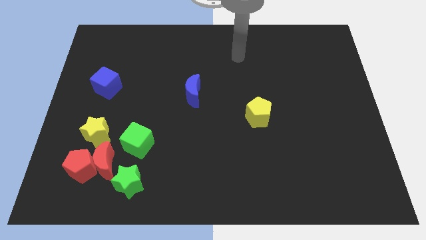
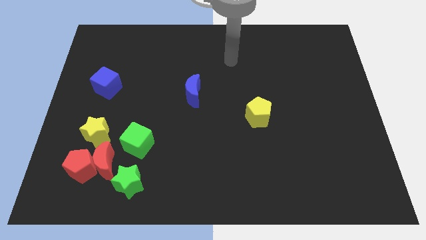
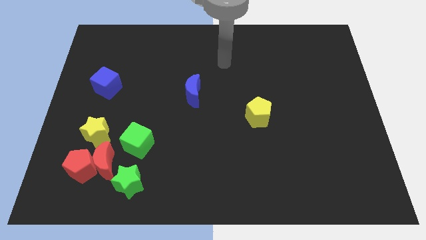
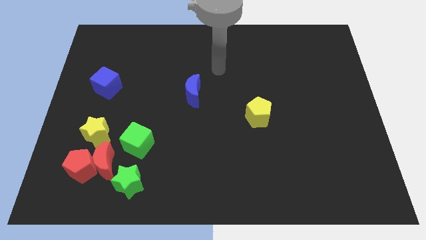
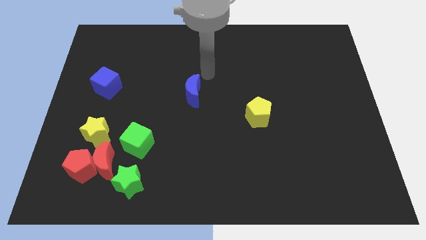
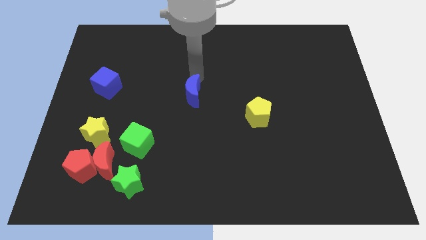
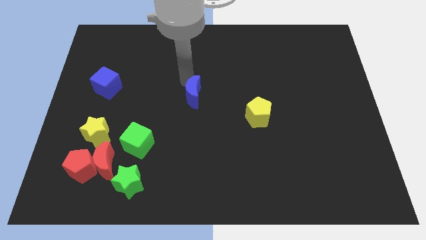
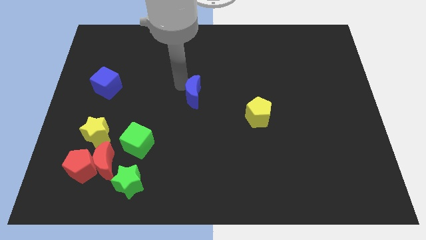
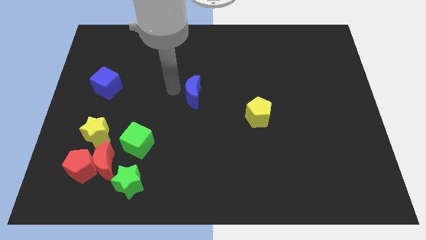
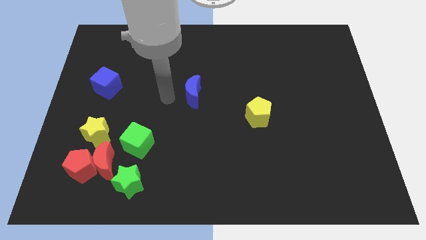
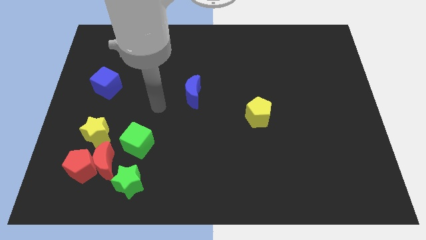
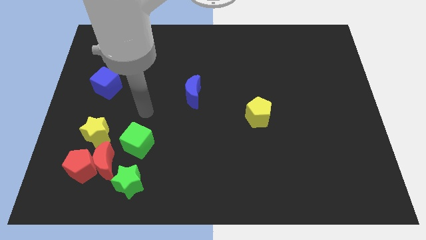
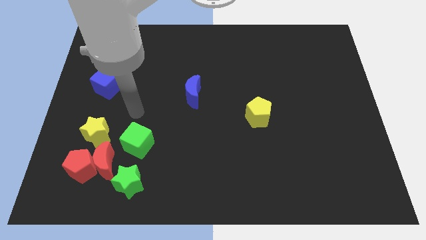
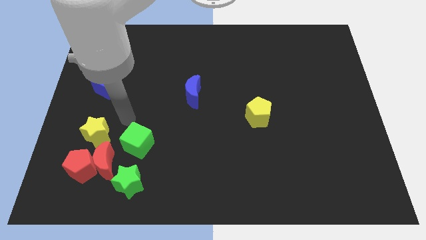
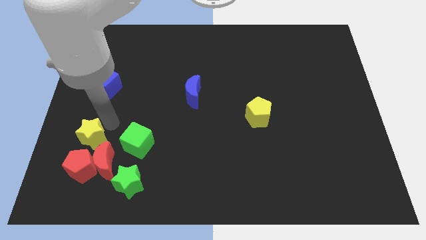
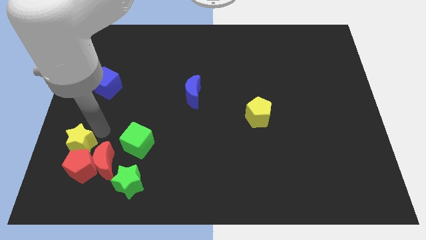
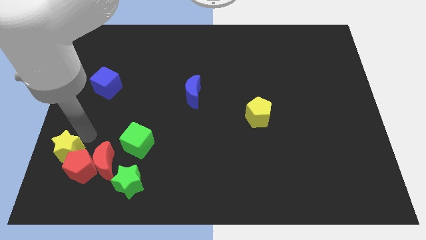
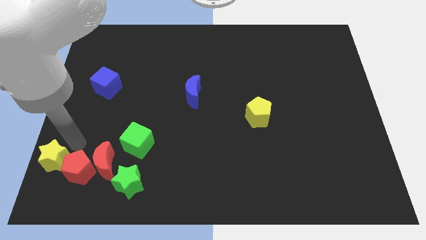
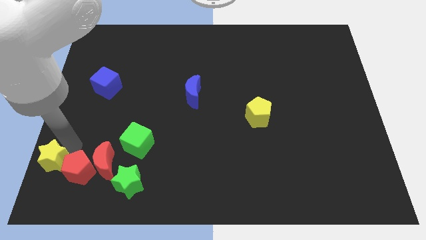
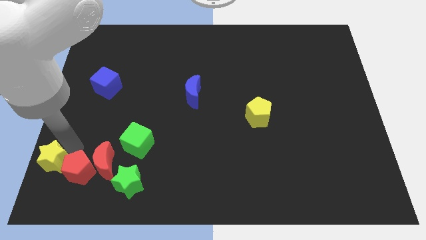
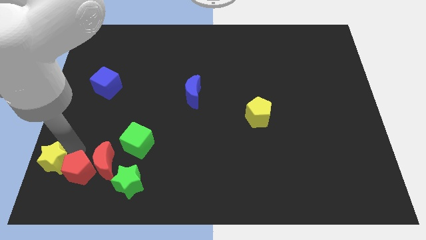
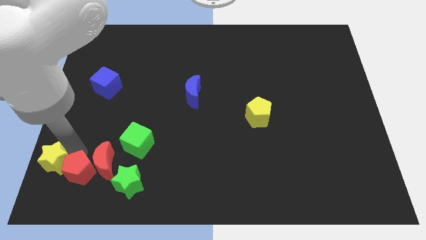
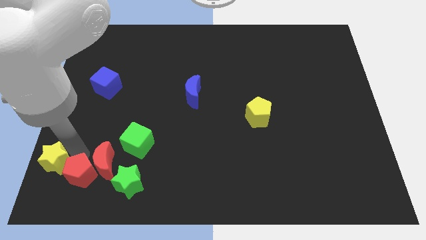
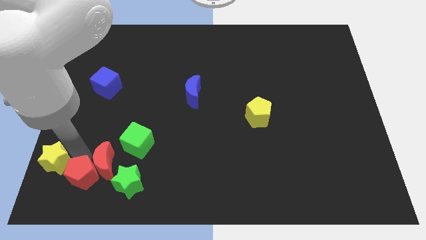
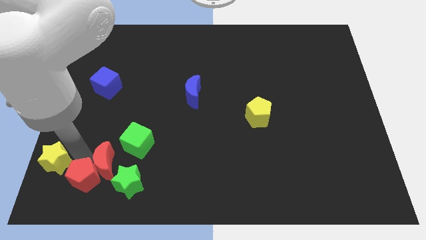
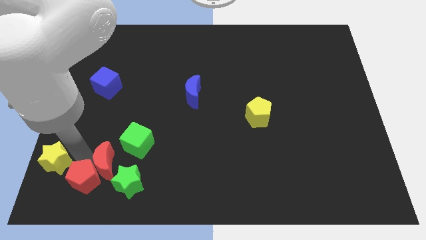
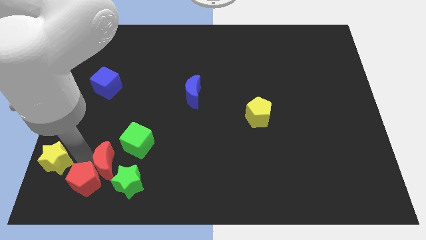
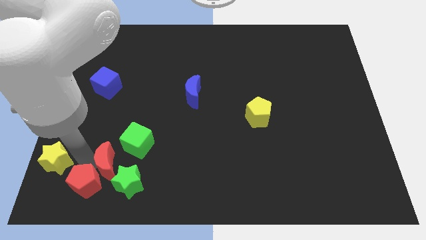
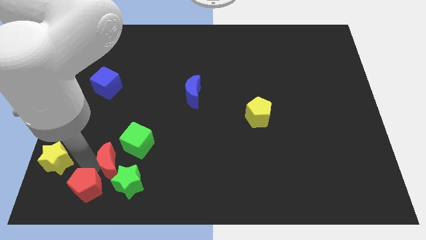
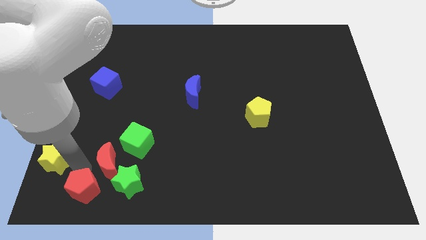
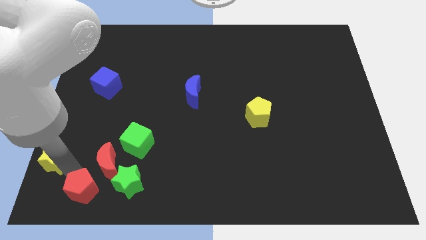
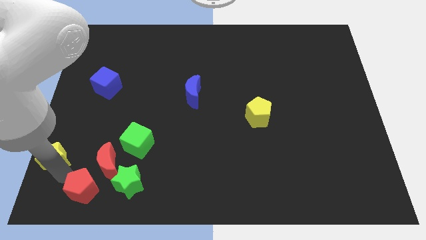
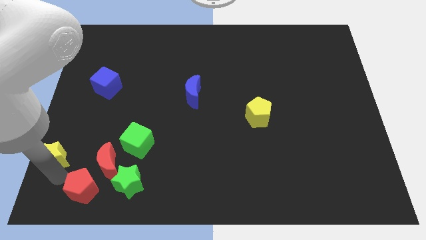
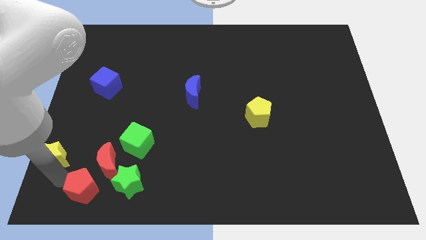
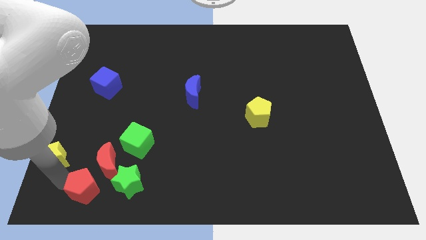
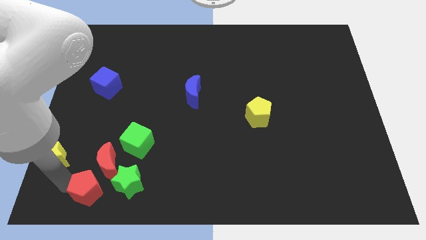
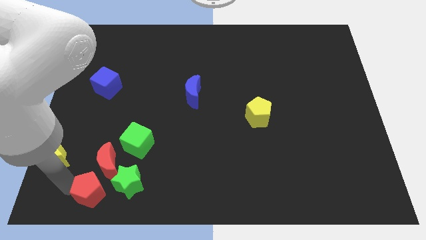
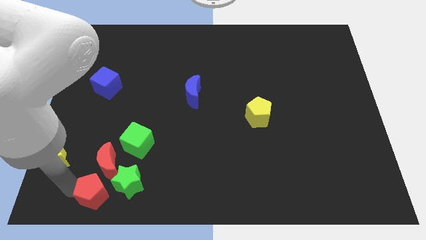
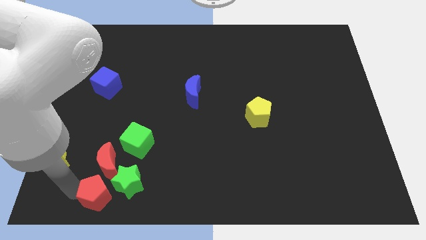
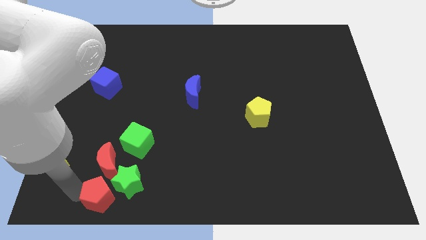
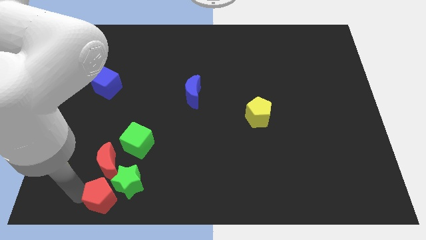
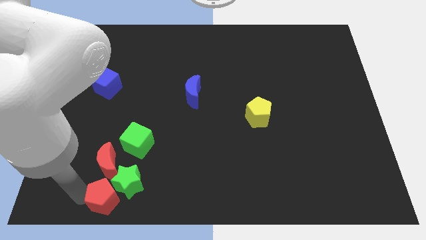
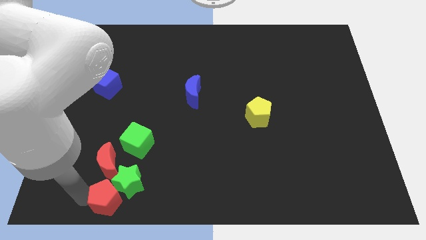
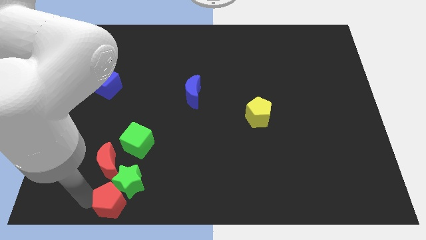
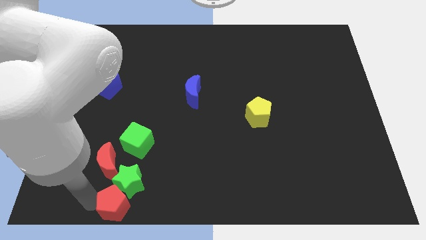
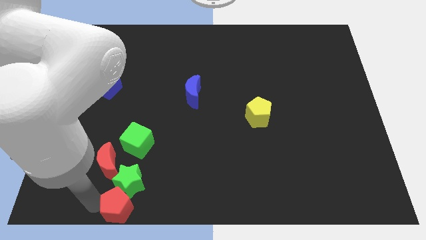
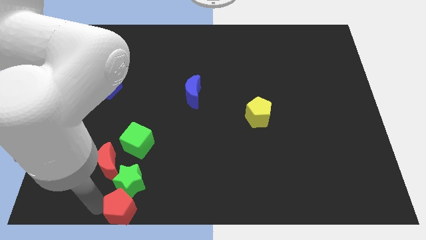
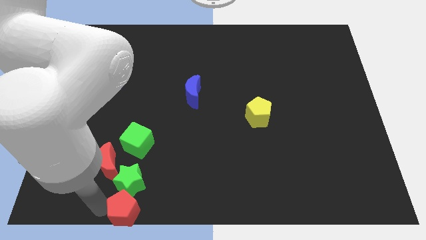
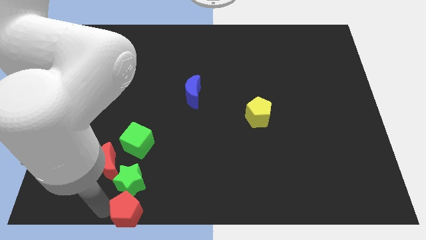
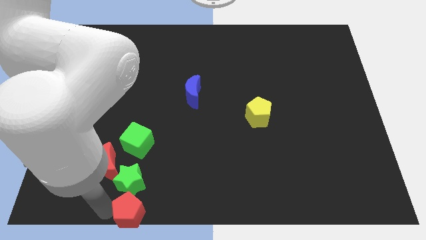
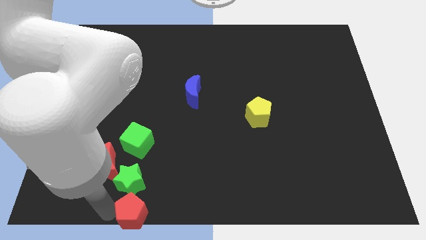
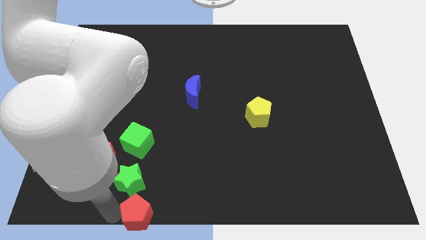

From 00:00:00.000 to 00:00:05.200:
slide the red pentagon to the bottom side

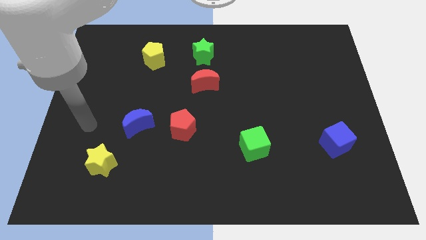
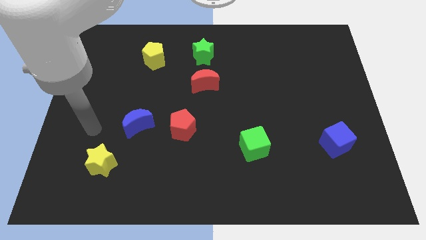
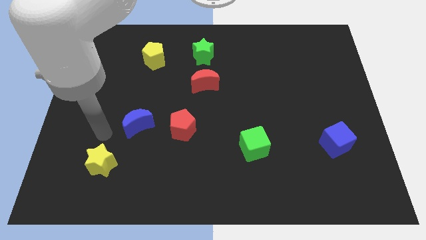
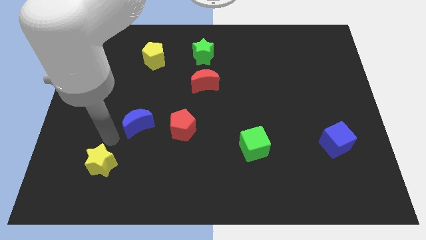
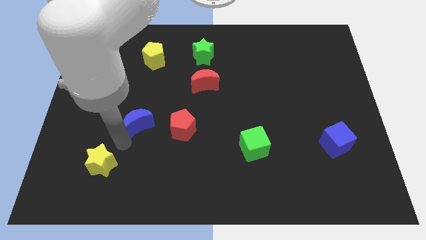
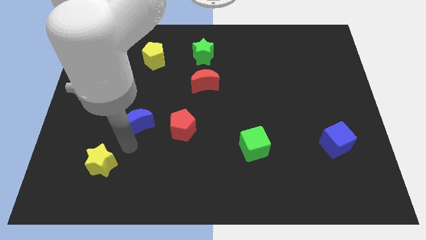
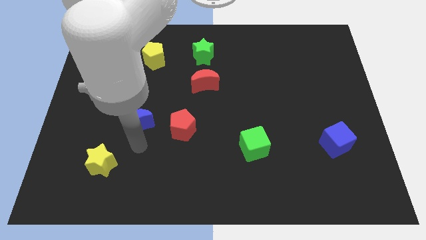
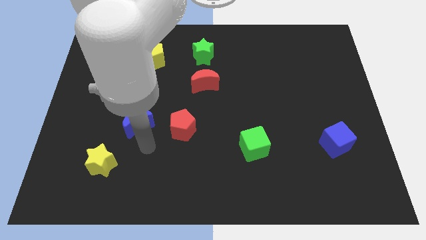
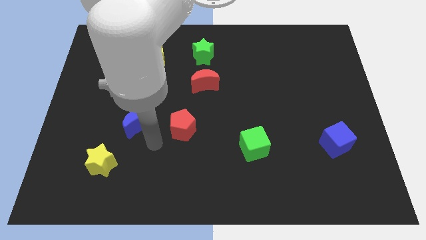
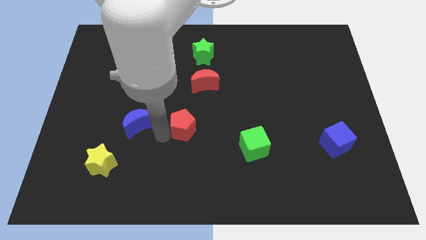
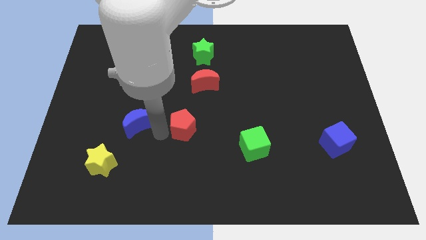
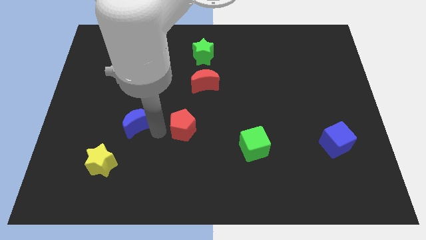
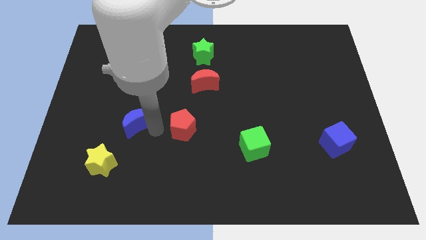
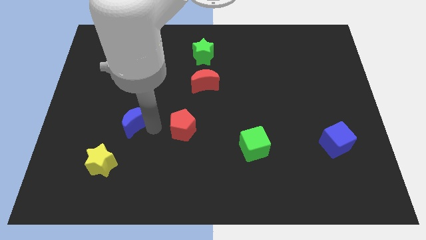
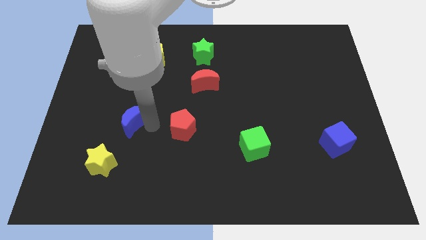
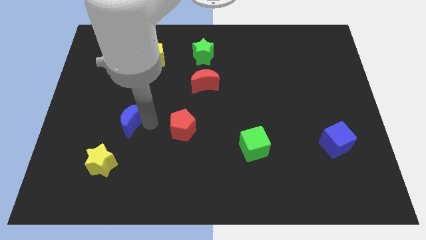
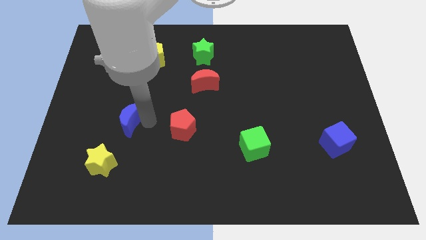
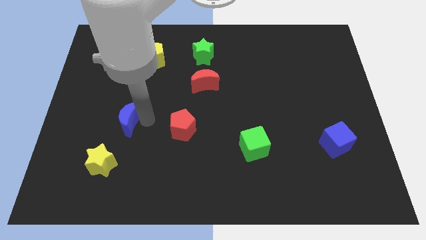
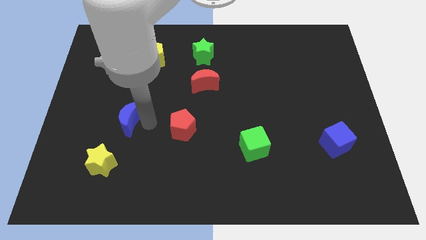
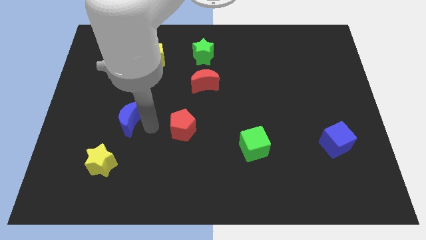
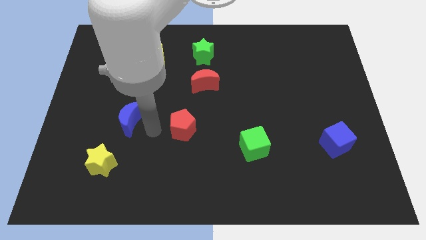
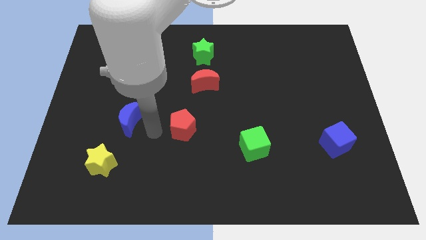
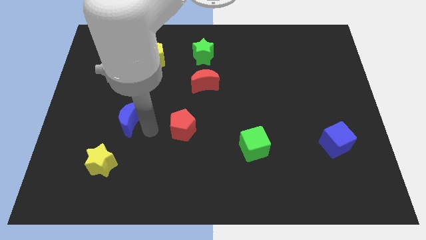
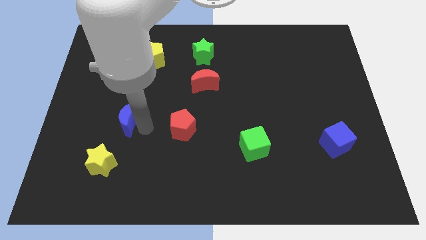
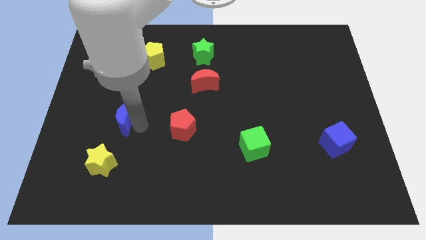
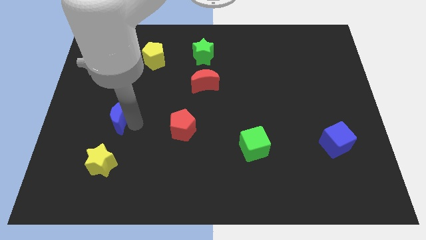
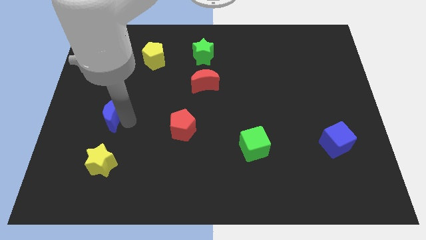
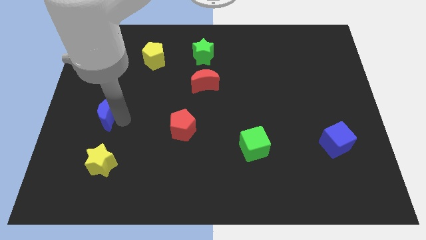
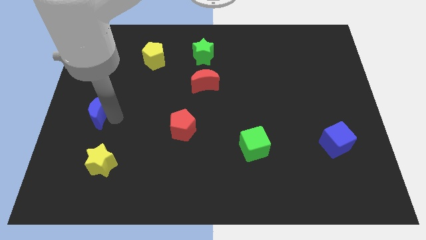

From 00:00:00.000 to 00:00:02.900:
move the blue moon to the left side of the board
